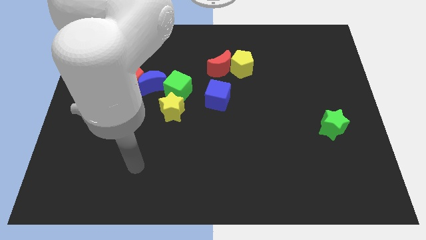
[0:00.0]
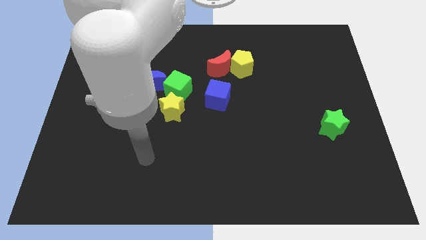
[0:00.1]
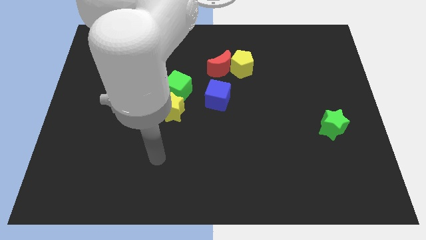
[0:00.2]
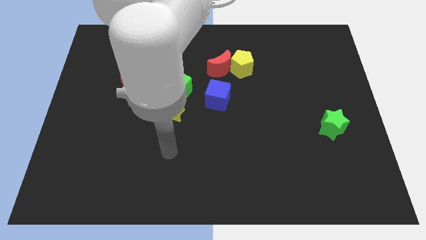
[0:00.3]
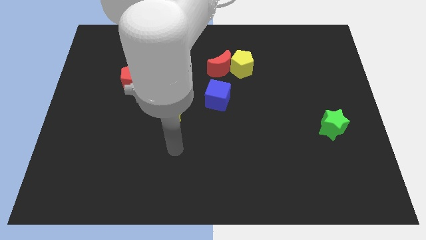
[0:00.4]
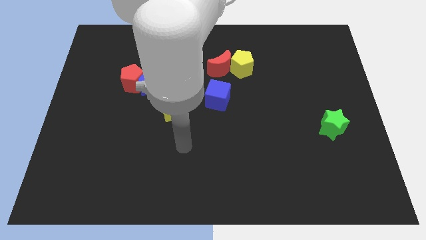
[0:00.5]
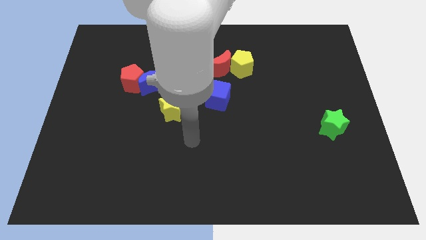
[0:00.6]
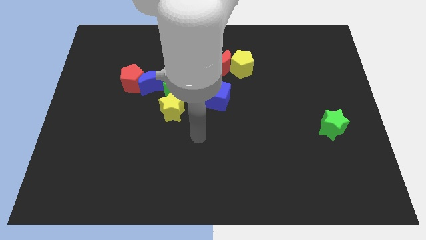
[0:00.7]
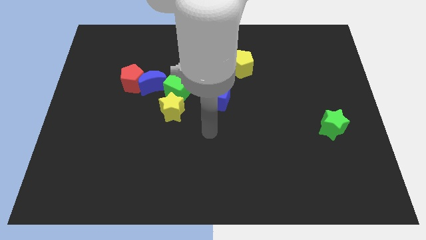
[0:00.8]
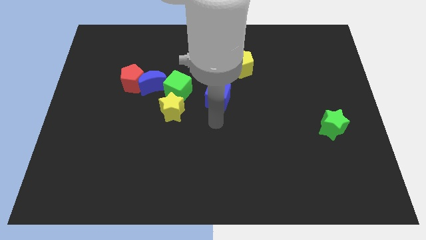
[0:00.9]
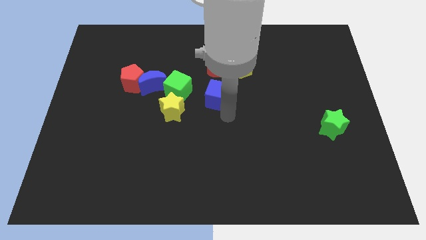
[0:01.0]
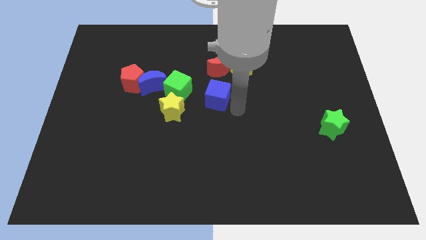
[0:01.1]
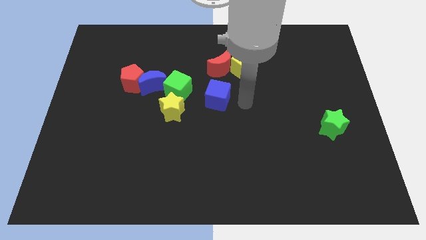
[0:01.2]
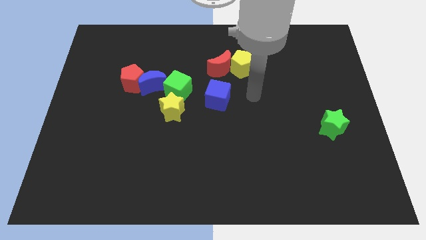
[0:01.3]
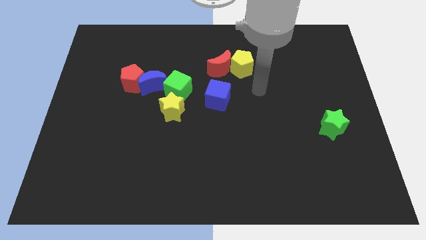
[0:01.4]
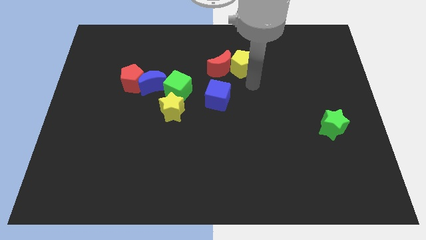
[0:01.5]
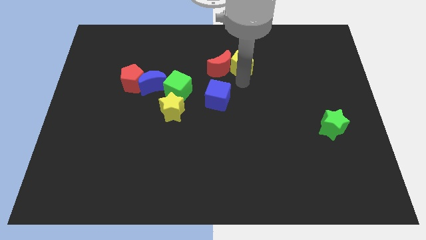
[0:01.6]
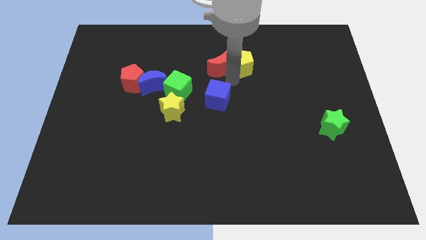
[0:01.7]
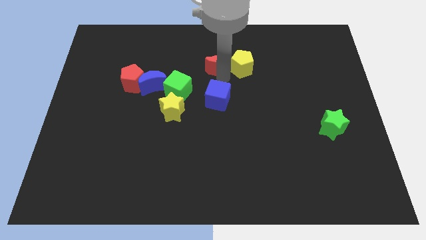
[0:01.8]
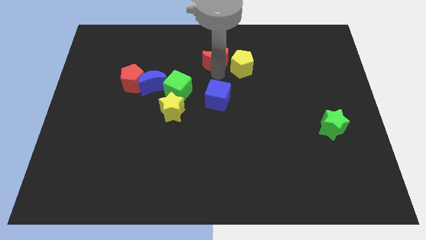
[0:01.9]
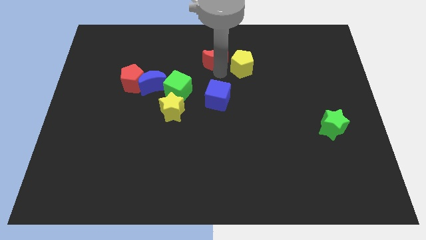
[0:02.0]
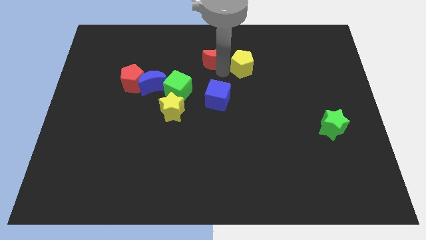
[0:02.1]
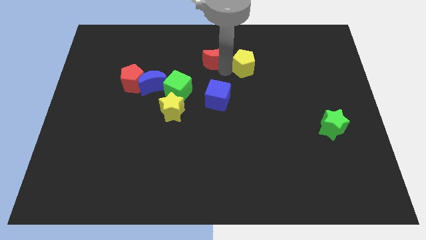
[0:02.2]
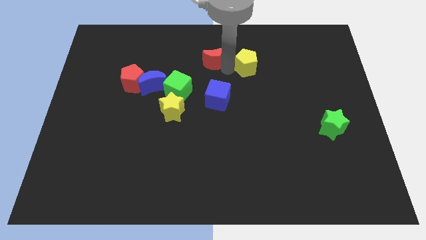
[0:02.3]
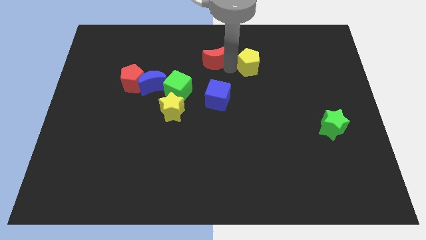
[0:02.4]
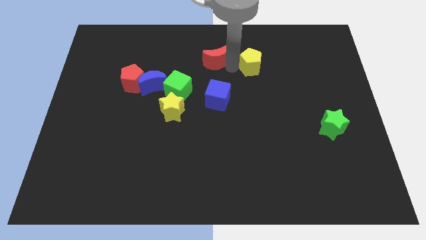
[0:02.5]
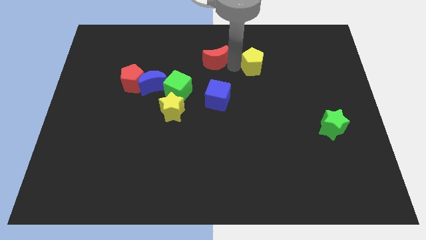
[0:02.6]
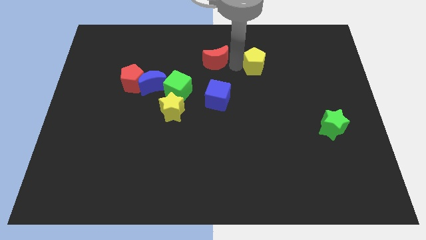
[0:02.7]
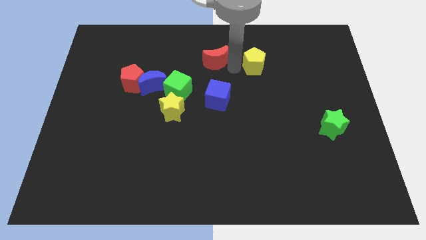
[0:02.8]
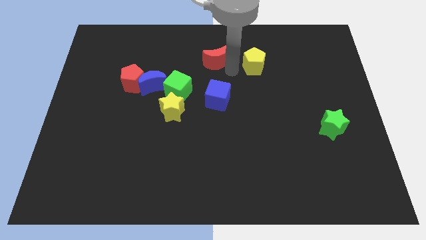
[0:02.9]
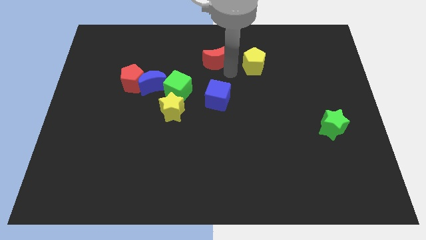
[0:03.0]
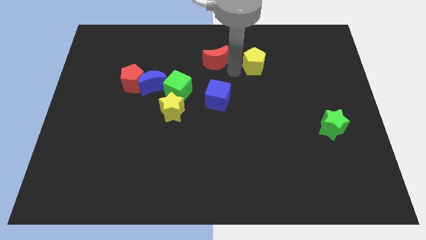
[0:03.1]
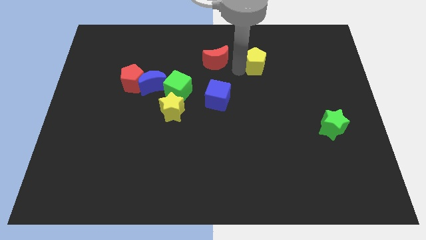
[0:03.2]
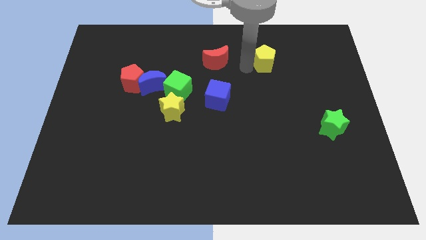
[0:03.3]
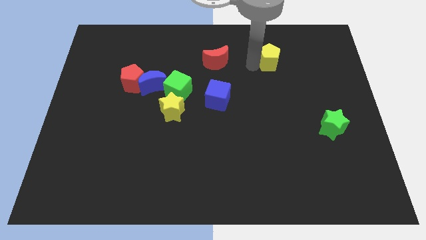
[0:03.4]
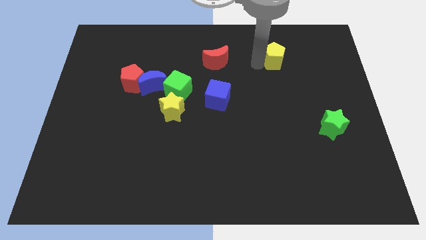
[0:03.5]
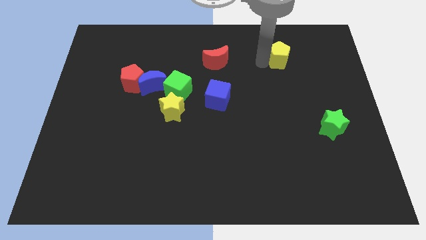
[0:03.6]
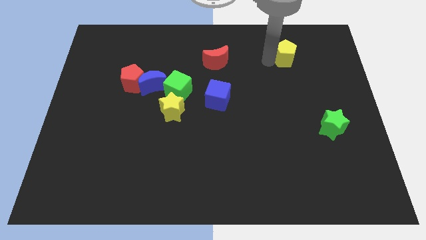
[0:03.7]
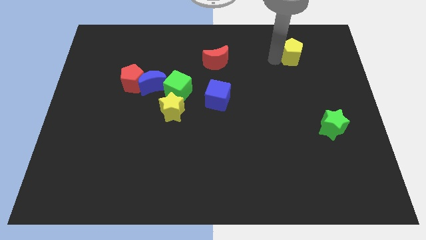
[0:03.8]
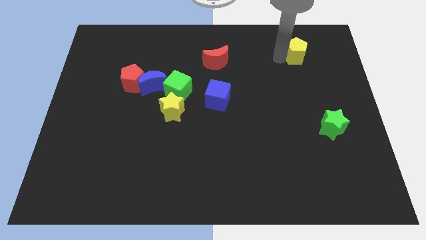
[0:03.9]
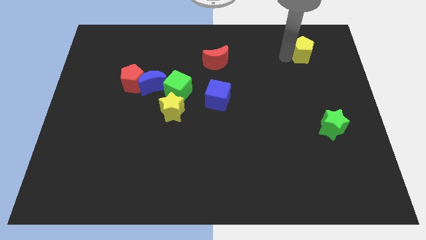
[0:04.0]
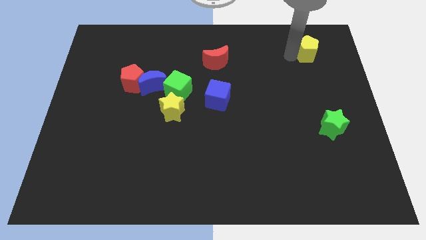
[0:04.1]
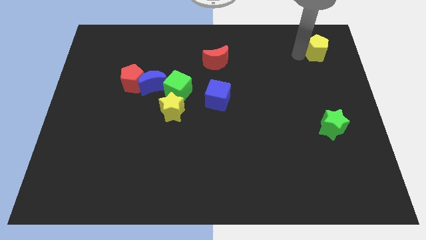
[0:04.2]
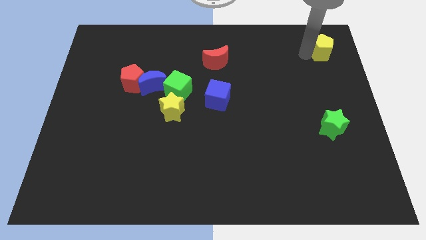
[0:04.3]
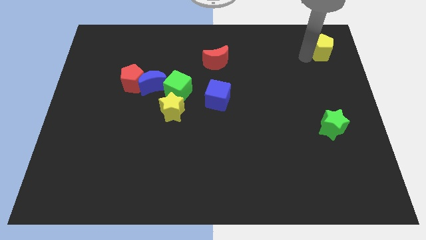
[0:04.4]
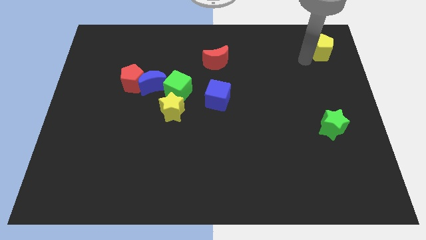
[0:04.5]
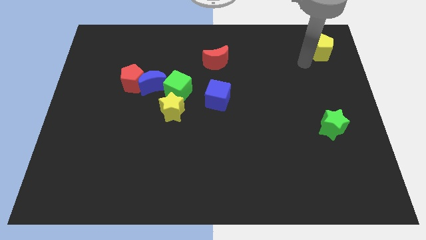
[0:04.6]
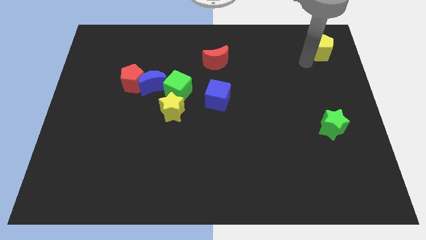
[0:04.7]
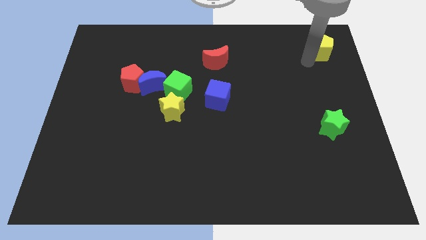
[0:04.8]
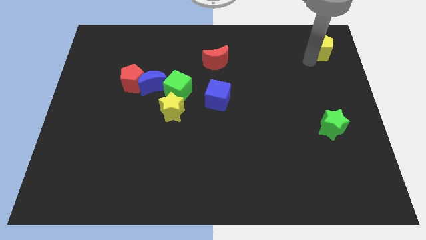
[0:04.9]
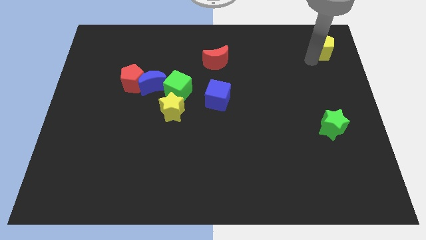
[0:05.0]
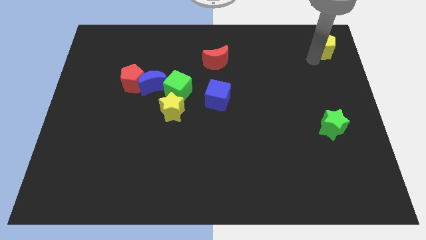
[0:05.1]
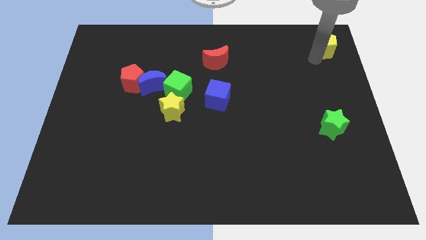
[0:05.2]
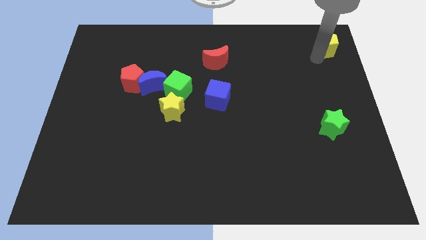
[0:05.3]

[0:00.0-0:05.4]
slide the yellow pentagon to the top right corner

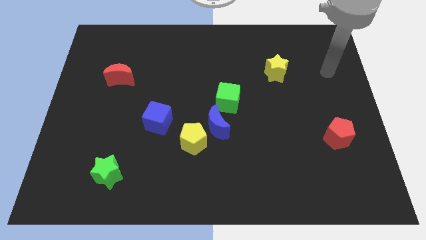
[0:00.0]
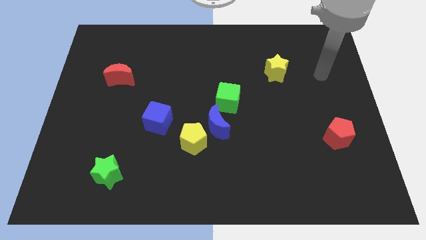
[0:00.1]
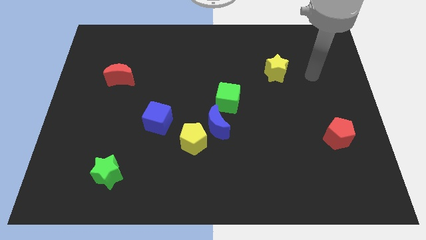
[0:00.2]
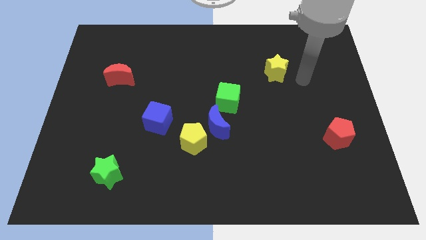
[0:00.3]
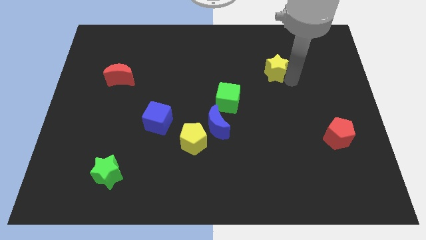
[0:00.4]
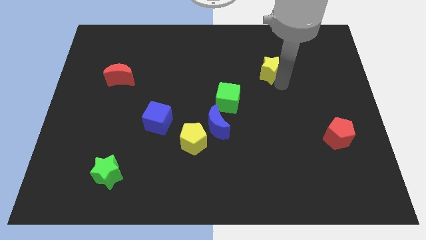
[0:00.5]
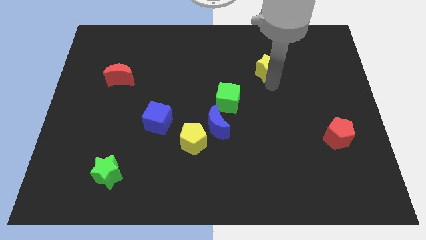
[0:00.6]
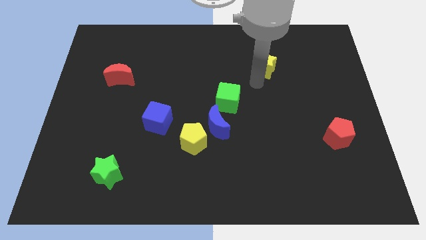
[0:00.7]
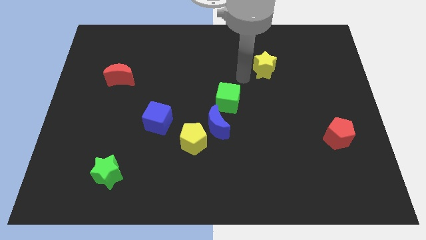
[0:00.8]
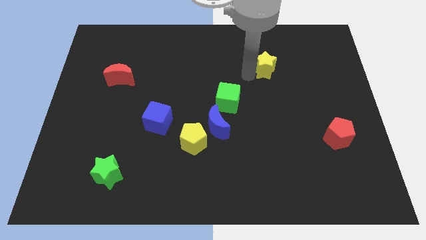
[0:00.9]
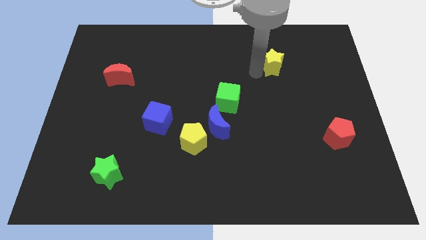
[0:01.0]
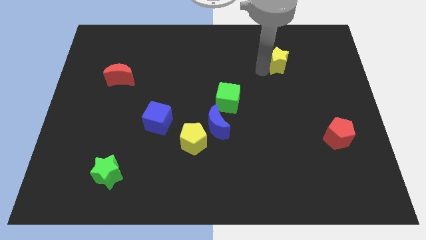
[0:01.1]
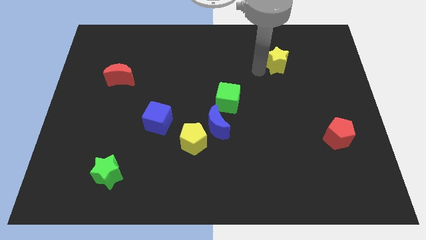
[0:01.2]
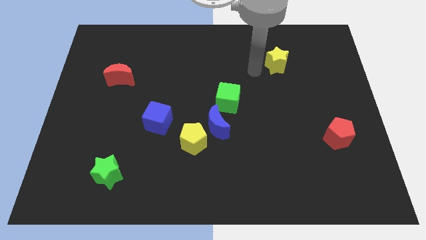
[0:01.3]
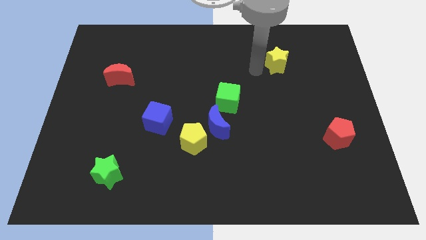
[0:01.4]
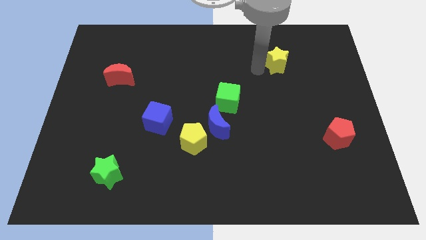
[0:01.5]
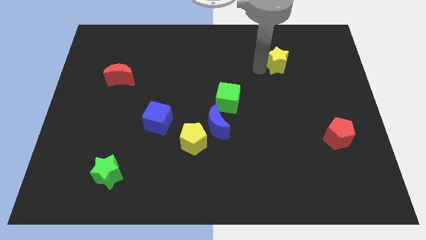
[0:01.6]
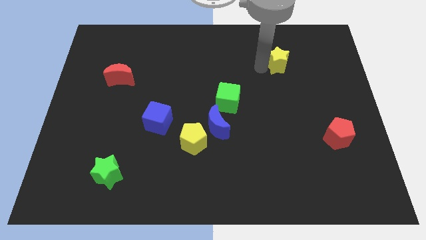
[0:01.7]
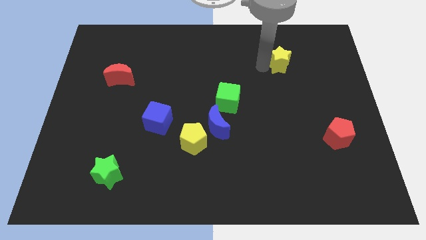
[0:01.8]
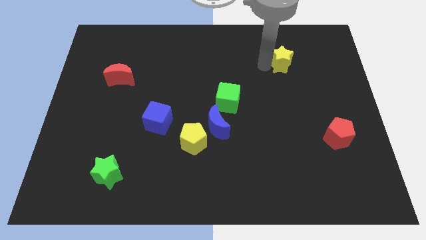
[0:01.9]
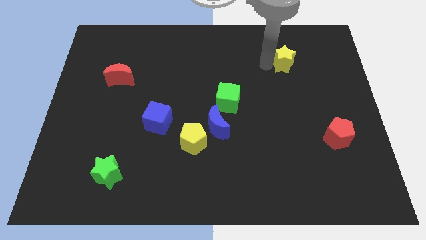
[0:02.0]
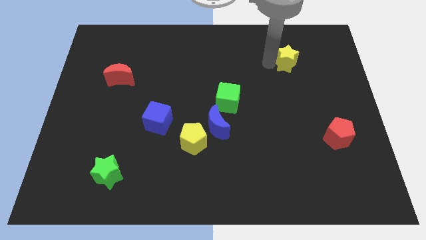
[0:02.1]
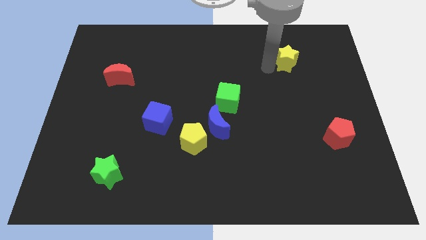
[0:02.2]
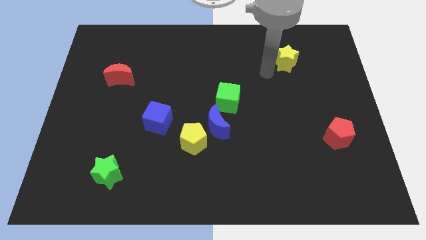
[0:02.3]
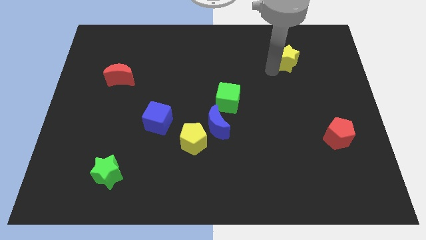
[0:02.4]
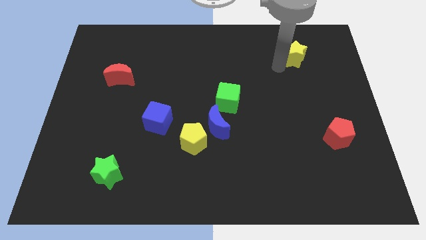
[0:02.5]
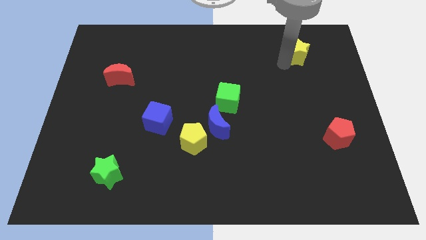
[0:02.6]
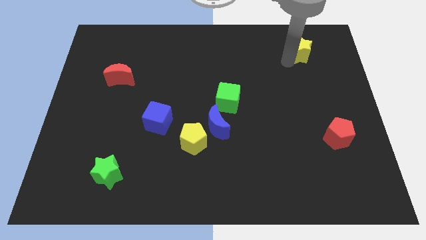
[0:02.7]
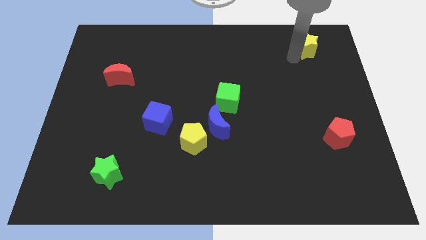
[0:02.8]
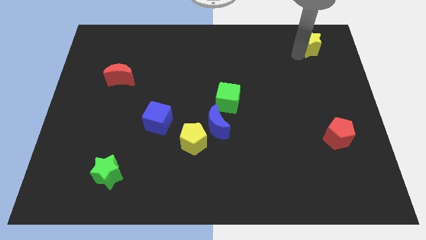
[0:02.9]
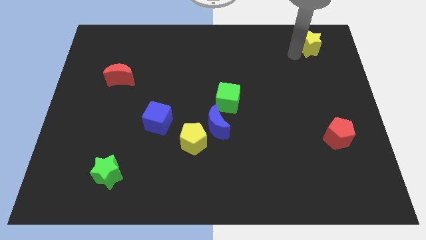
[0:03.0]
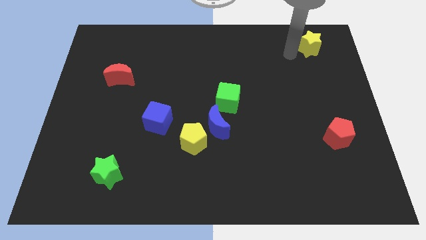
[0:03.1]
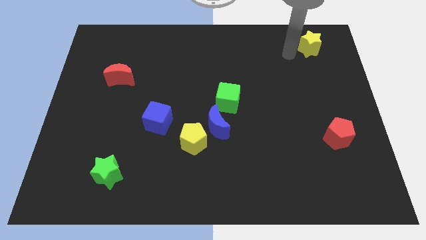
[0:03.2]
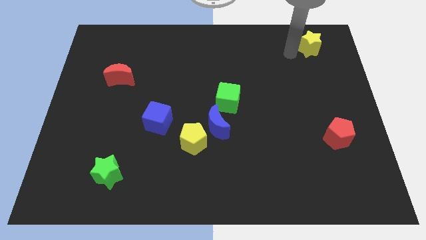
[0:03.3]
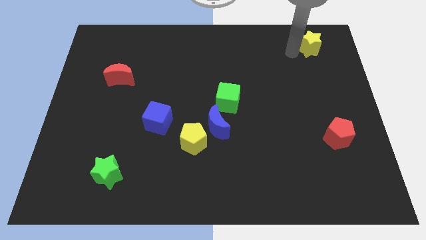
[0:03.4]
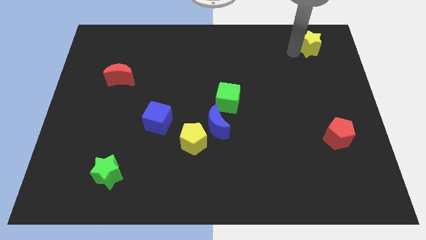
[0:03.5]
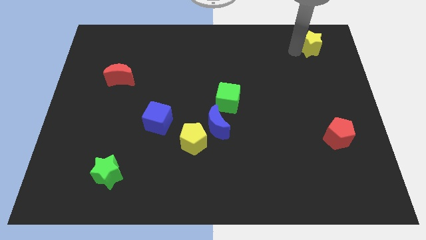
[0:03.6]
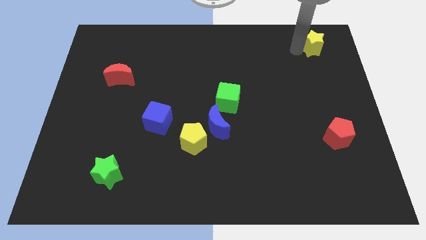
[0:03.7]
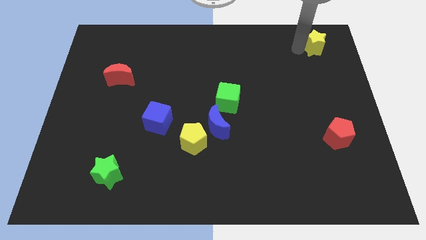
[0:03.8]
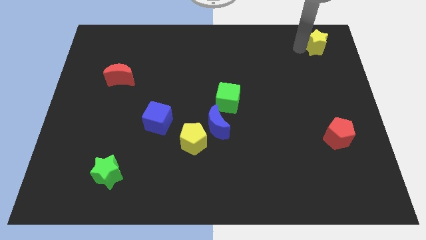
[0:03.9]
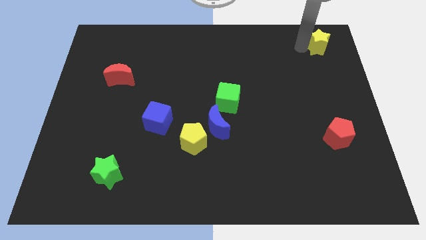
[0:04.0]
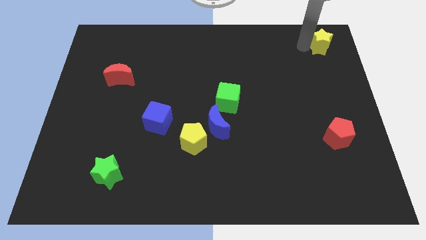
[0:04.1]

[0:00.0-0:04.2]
slide the yellow star to the top right of the board
